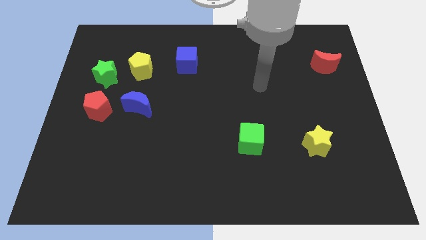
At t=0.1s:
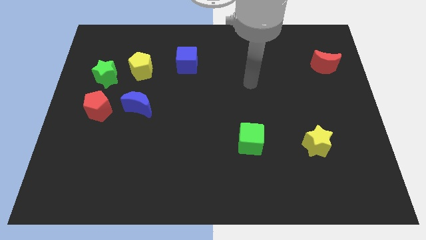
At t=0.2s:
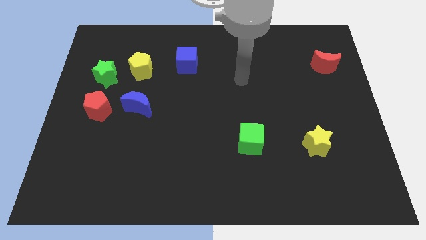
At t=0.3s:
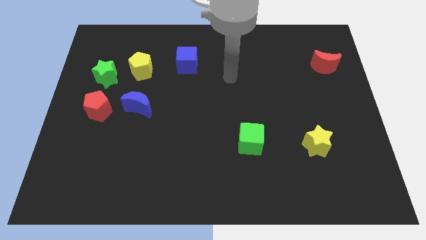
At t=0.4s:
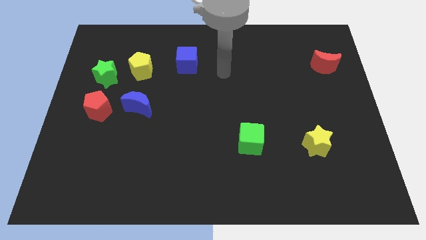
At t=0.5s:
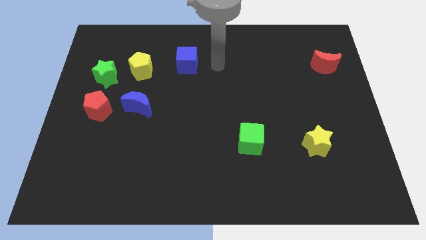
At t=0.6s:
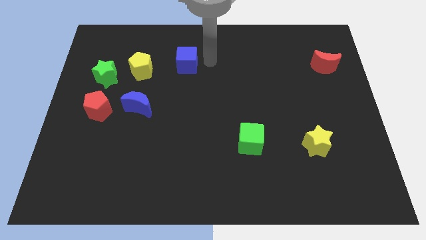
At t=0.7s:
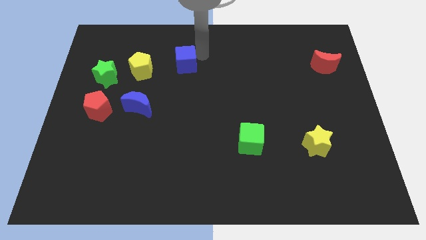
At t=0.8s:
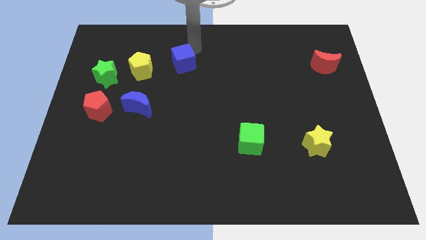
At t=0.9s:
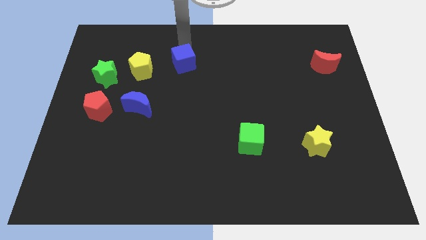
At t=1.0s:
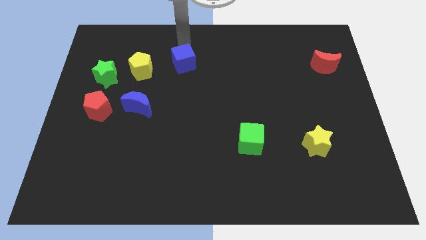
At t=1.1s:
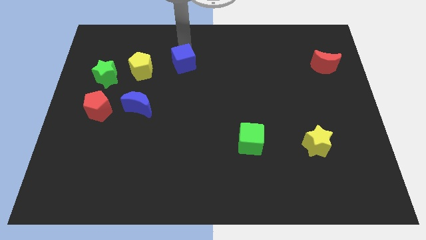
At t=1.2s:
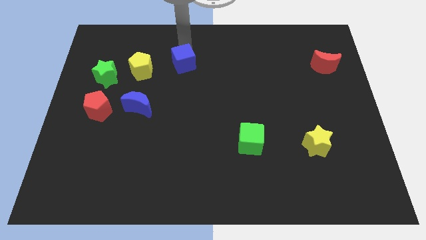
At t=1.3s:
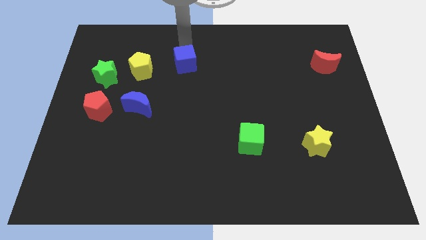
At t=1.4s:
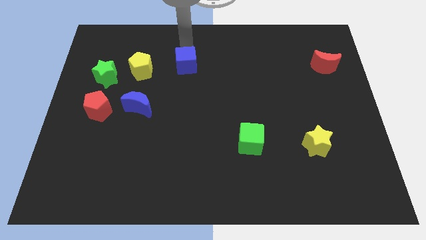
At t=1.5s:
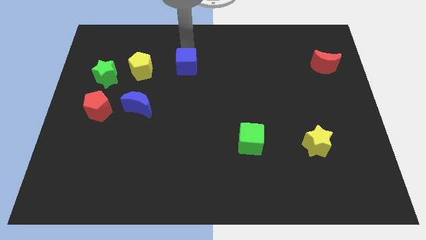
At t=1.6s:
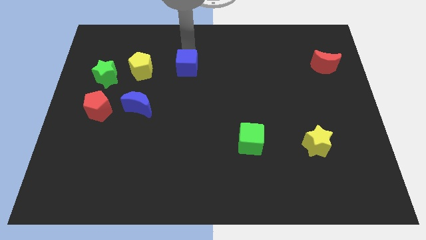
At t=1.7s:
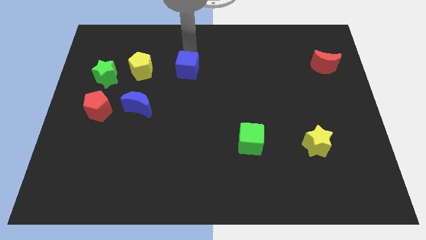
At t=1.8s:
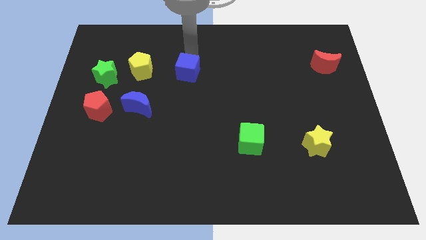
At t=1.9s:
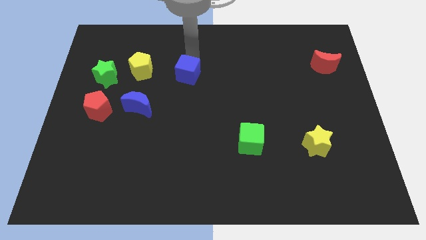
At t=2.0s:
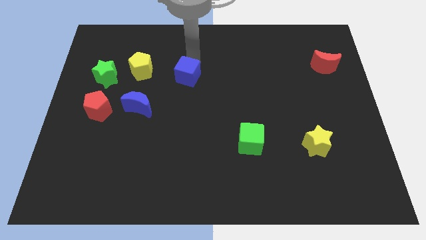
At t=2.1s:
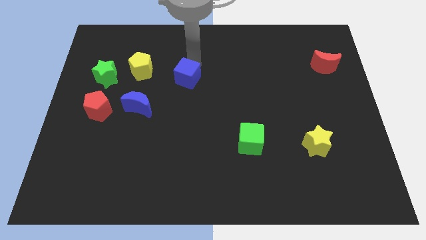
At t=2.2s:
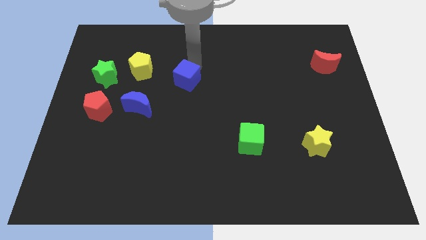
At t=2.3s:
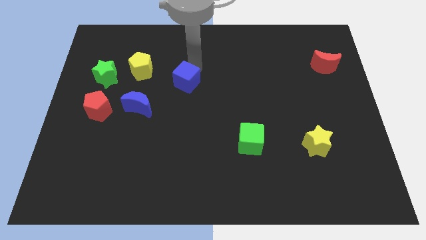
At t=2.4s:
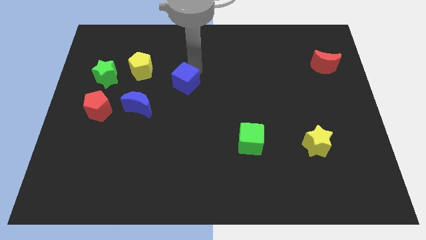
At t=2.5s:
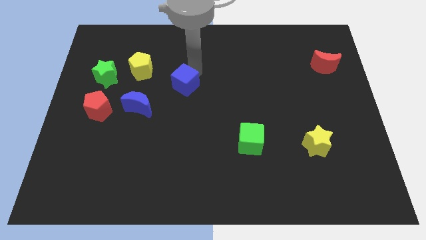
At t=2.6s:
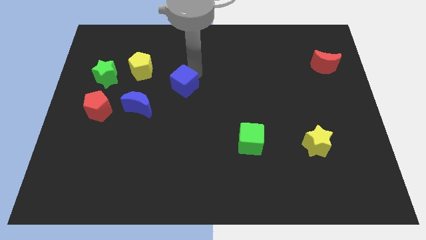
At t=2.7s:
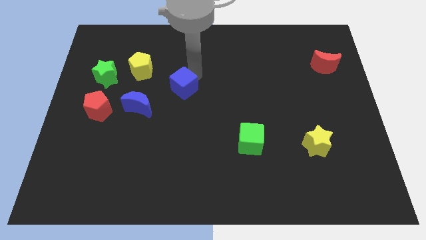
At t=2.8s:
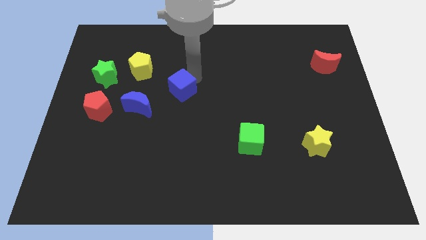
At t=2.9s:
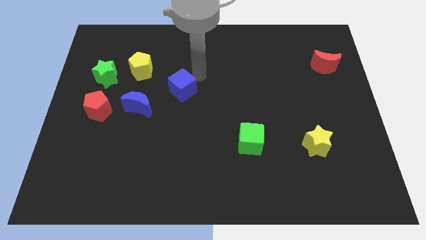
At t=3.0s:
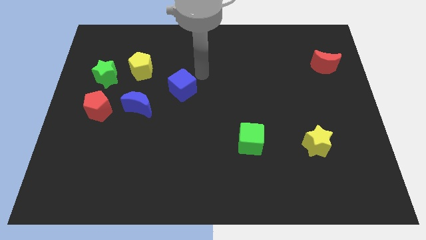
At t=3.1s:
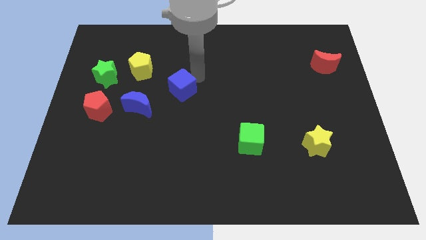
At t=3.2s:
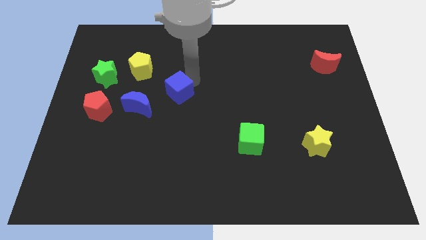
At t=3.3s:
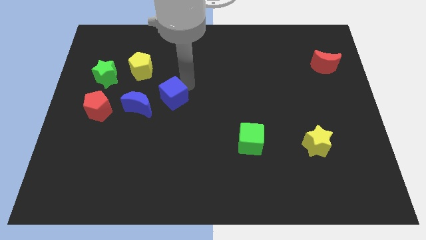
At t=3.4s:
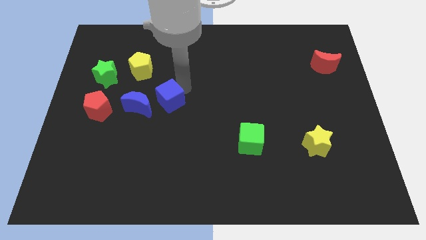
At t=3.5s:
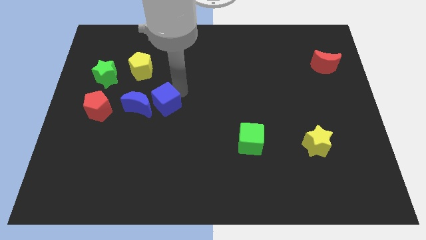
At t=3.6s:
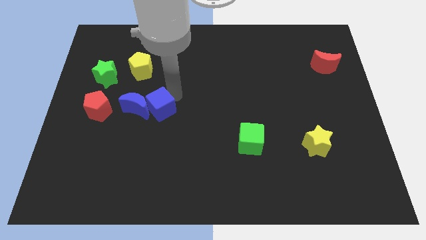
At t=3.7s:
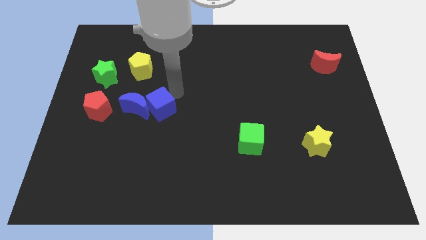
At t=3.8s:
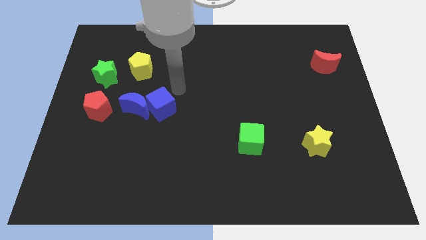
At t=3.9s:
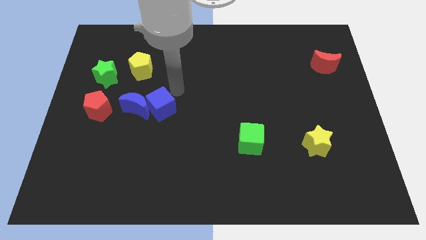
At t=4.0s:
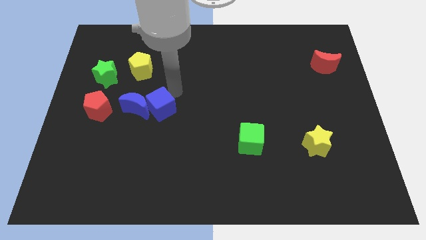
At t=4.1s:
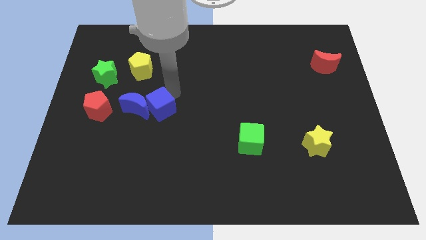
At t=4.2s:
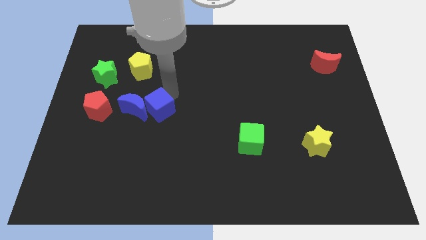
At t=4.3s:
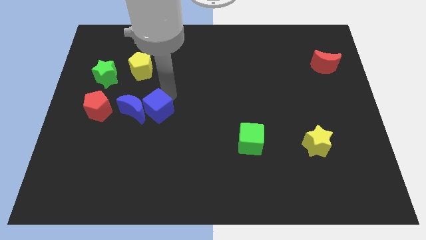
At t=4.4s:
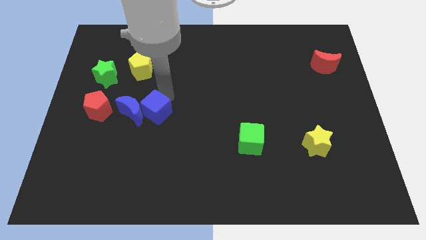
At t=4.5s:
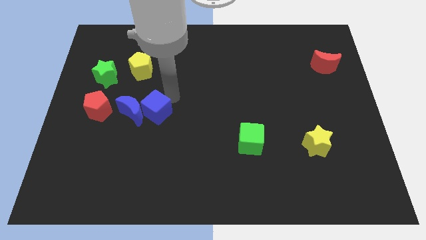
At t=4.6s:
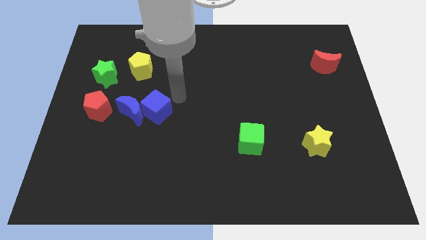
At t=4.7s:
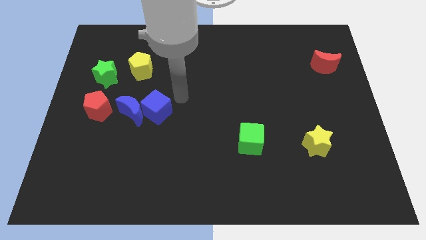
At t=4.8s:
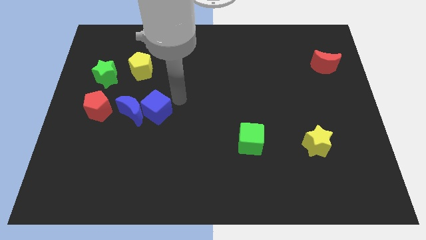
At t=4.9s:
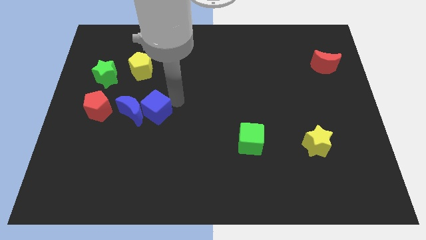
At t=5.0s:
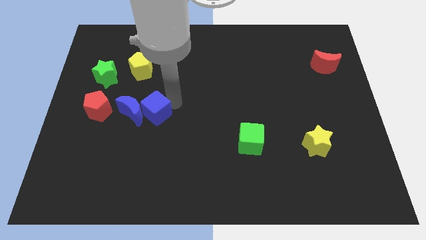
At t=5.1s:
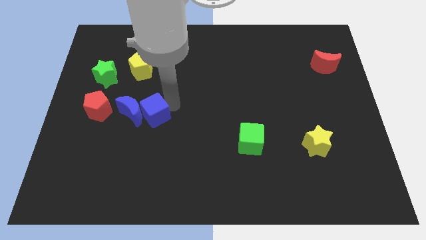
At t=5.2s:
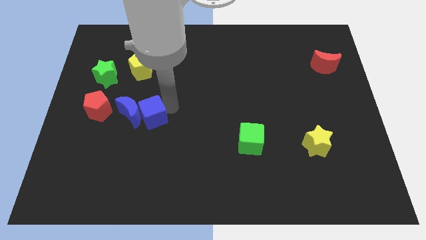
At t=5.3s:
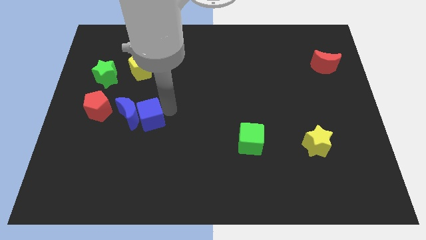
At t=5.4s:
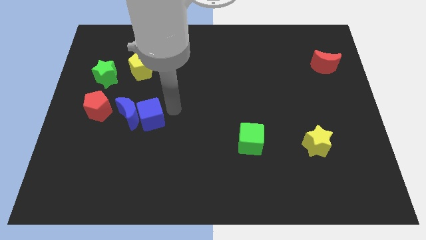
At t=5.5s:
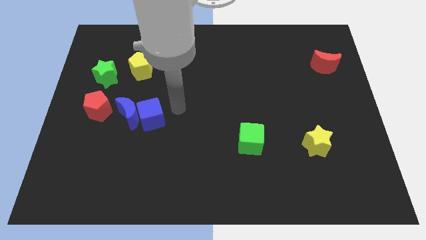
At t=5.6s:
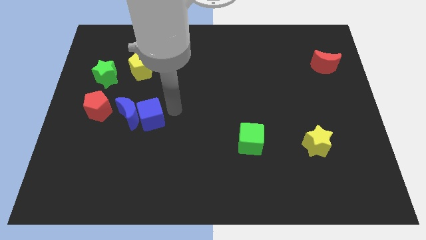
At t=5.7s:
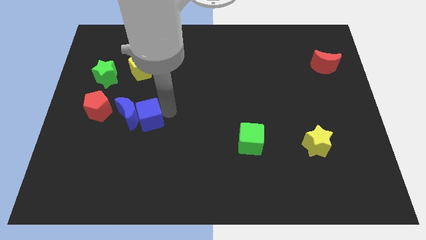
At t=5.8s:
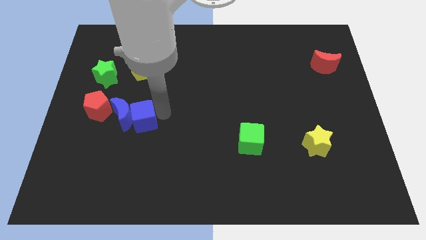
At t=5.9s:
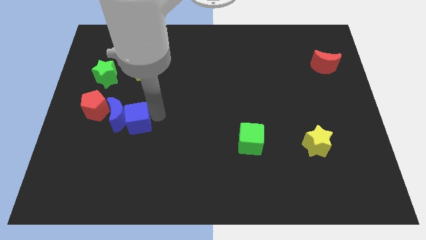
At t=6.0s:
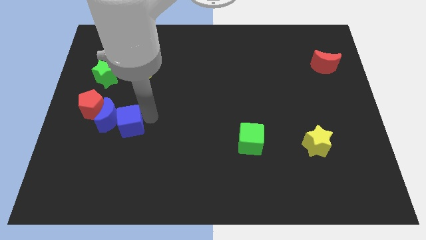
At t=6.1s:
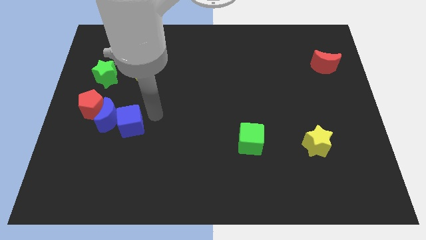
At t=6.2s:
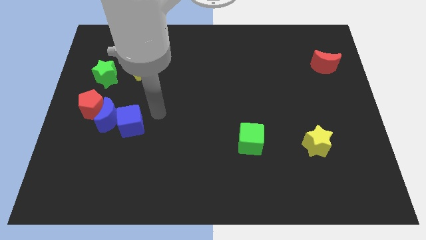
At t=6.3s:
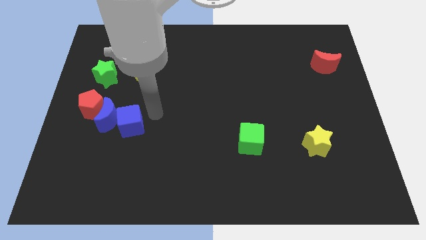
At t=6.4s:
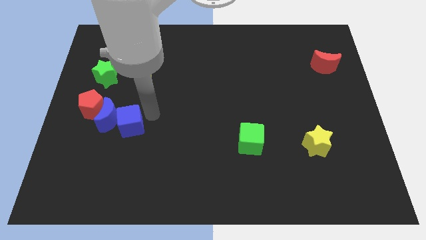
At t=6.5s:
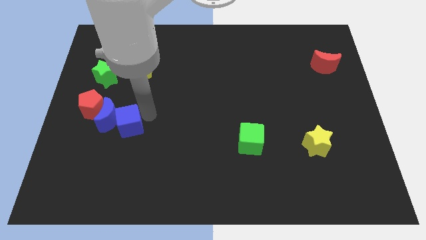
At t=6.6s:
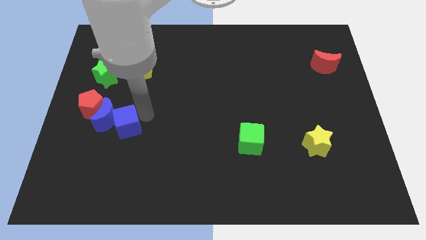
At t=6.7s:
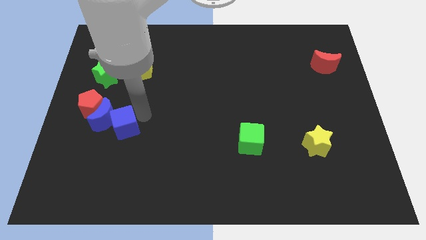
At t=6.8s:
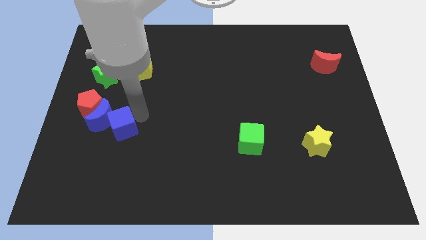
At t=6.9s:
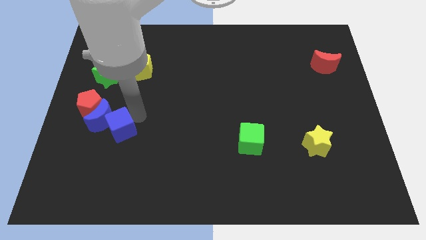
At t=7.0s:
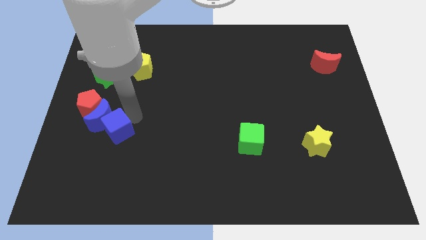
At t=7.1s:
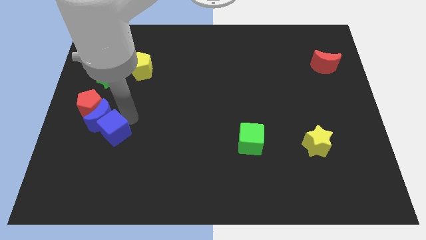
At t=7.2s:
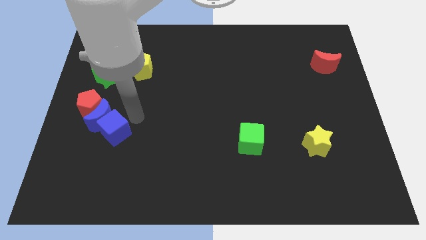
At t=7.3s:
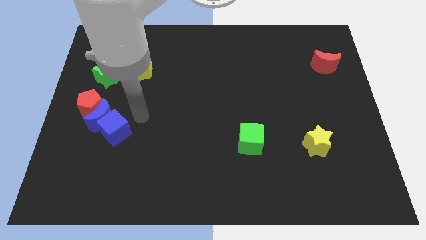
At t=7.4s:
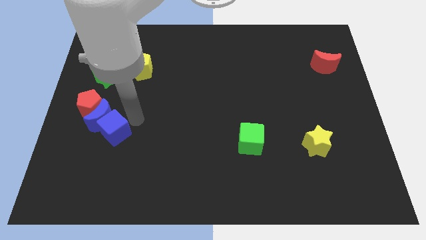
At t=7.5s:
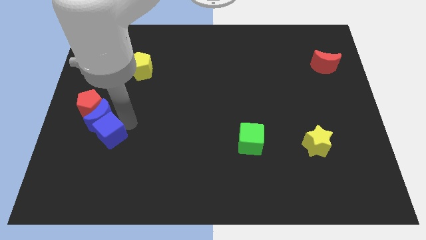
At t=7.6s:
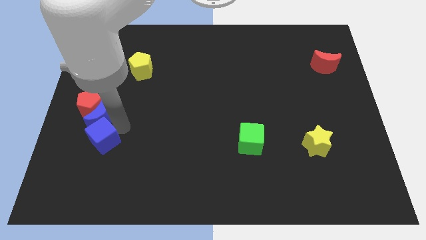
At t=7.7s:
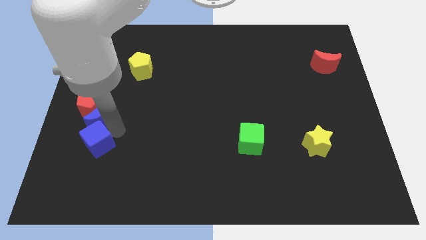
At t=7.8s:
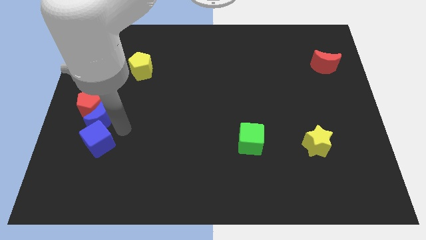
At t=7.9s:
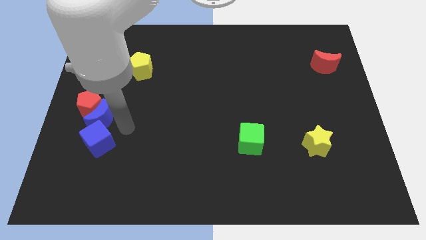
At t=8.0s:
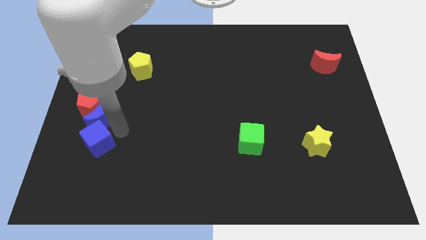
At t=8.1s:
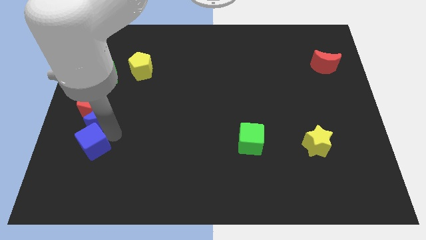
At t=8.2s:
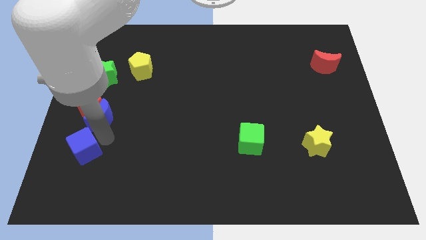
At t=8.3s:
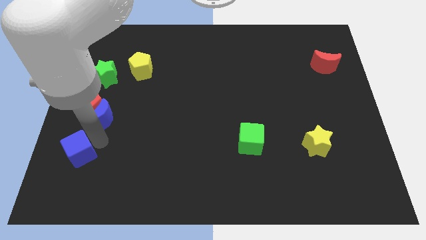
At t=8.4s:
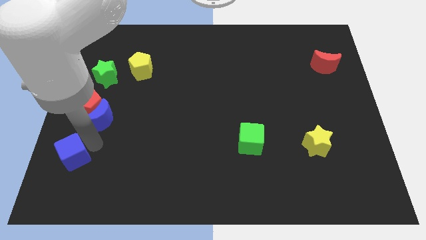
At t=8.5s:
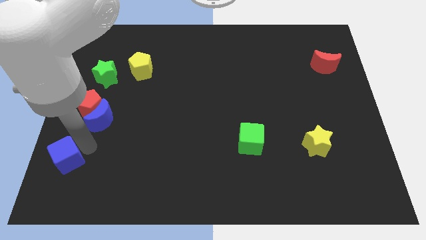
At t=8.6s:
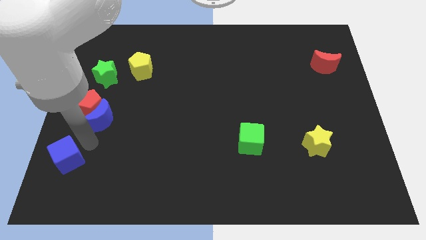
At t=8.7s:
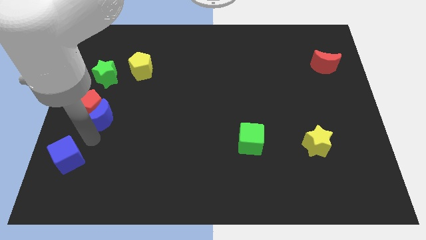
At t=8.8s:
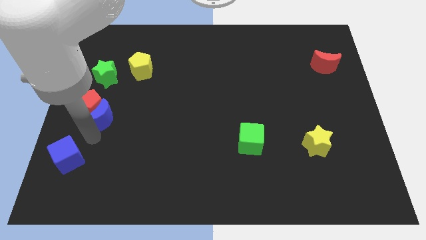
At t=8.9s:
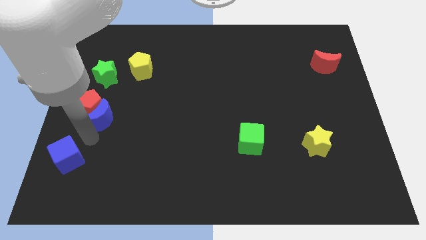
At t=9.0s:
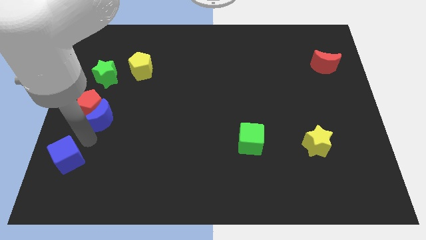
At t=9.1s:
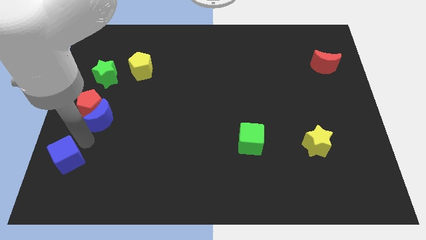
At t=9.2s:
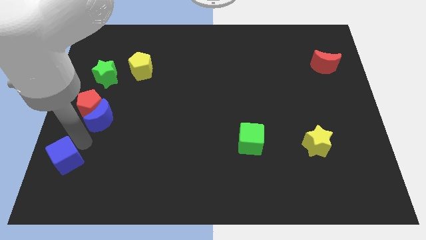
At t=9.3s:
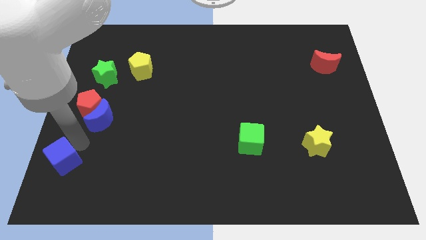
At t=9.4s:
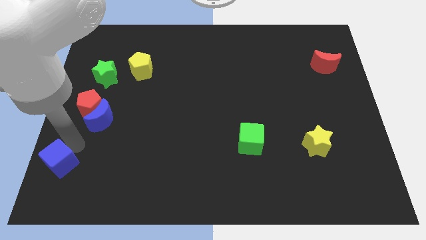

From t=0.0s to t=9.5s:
put the blue cube to the bottom left
